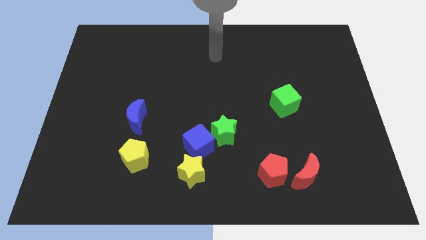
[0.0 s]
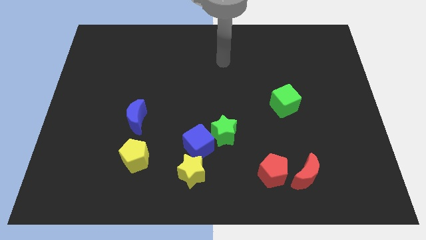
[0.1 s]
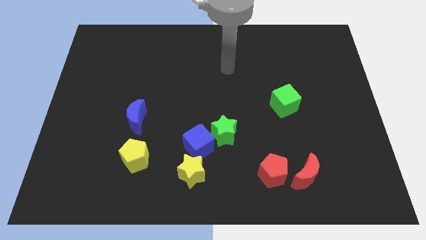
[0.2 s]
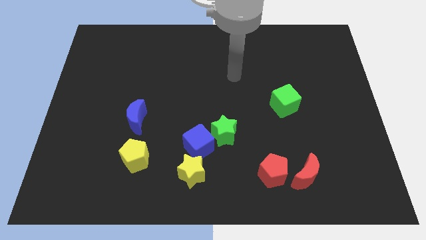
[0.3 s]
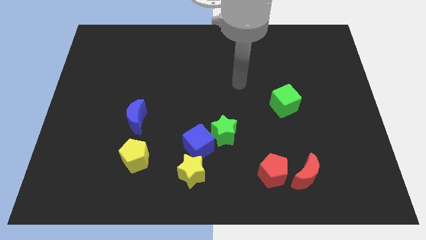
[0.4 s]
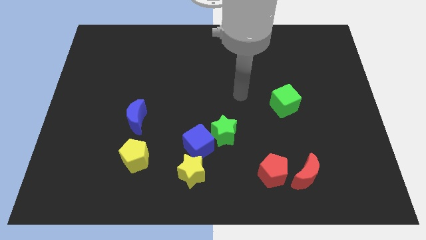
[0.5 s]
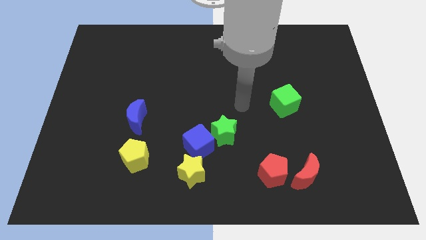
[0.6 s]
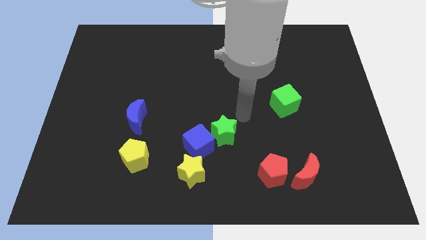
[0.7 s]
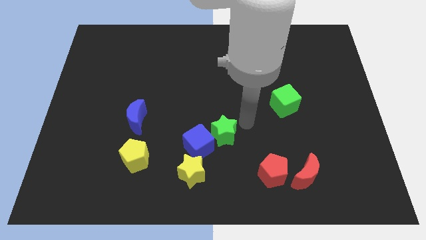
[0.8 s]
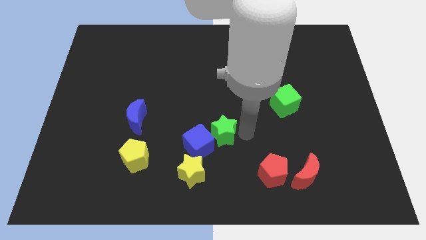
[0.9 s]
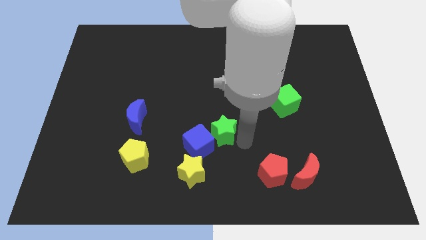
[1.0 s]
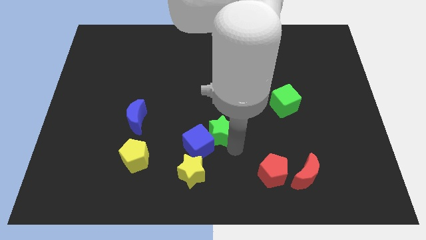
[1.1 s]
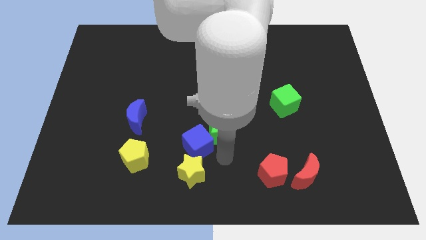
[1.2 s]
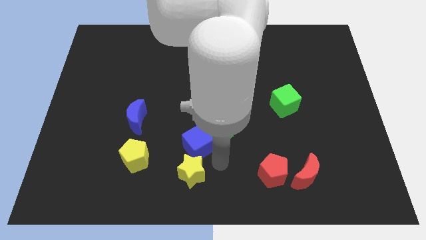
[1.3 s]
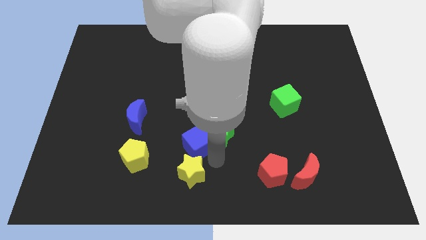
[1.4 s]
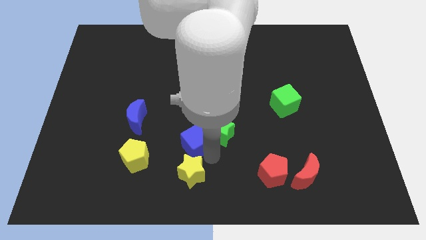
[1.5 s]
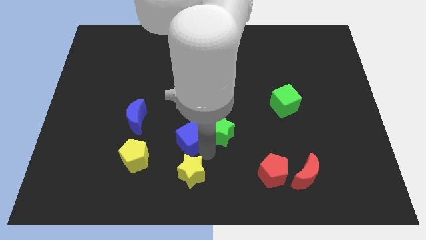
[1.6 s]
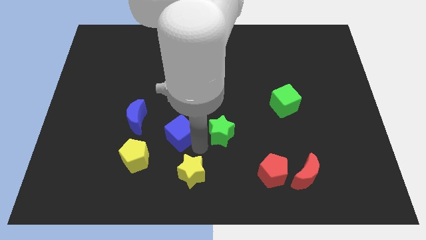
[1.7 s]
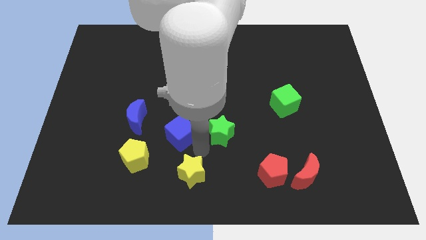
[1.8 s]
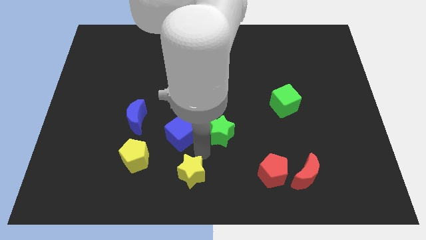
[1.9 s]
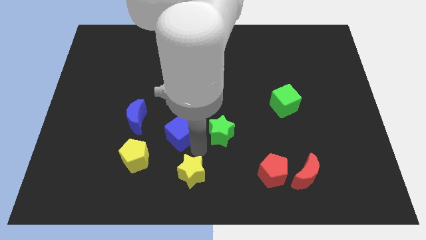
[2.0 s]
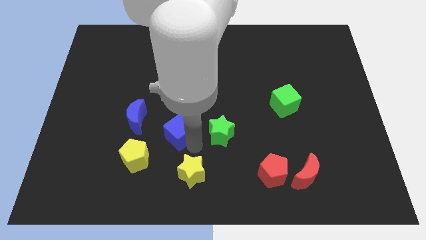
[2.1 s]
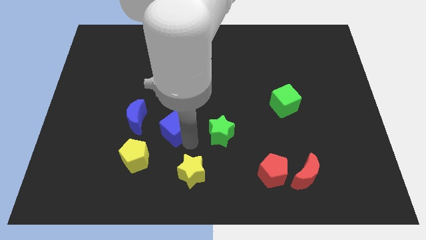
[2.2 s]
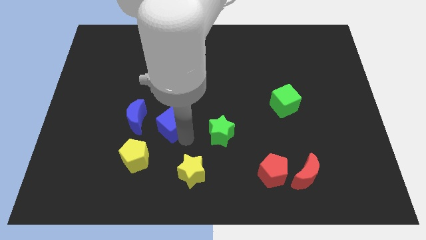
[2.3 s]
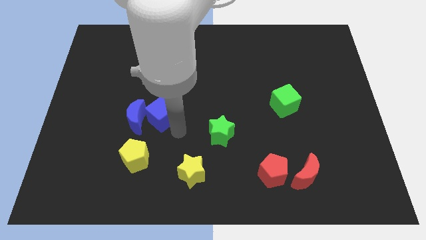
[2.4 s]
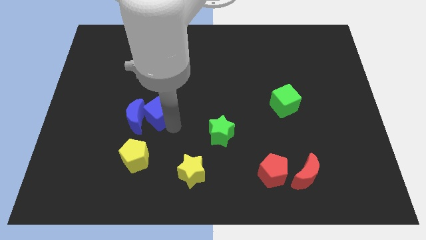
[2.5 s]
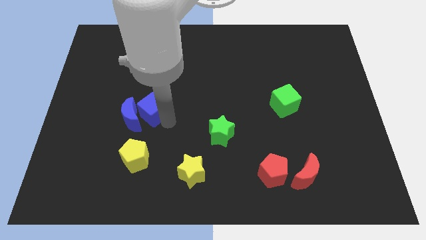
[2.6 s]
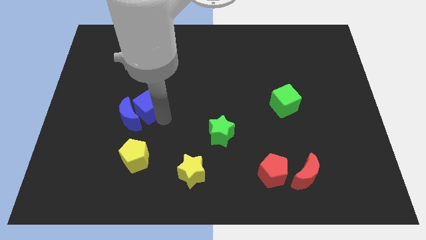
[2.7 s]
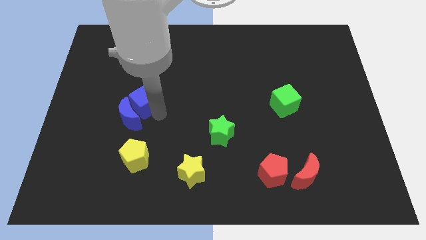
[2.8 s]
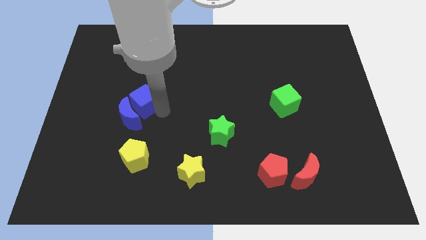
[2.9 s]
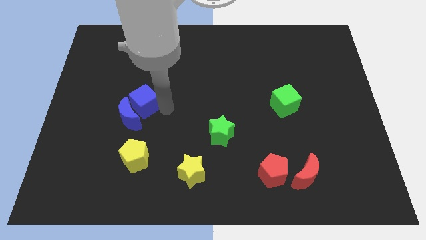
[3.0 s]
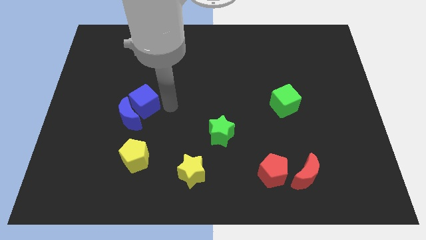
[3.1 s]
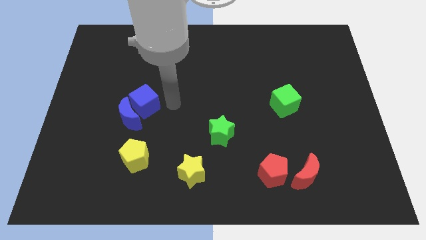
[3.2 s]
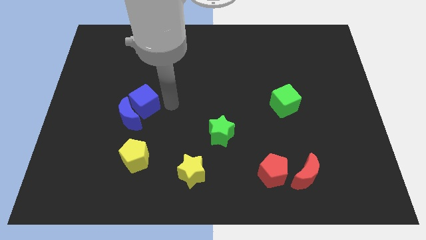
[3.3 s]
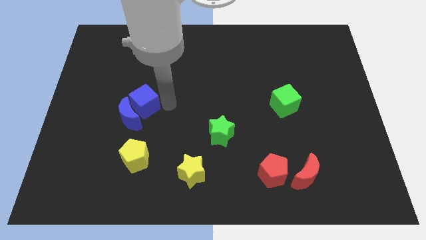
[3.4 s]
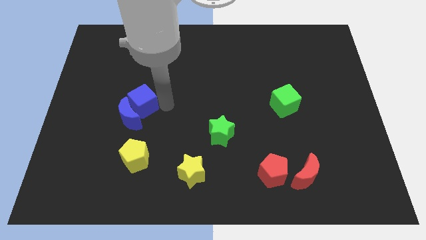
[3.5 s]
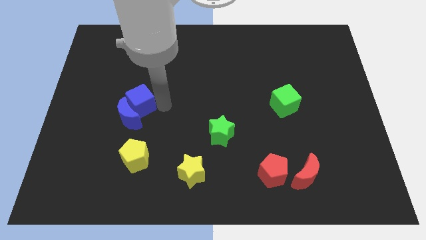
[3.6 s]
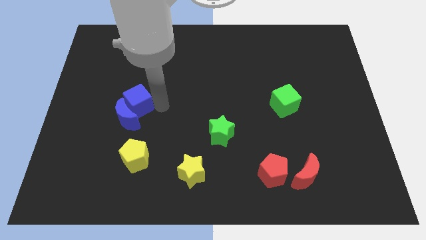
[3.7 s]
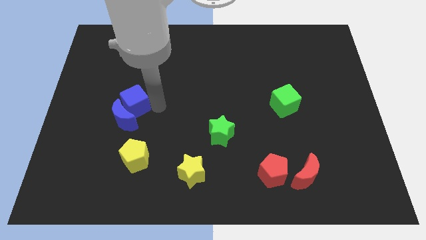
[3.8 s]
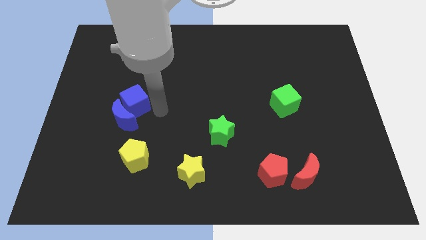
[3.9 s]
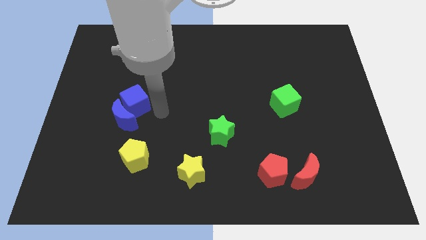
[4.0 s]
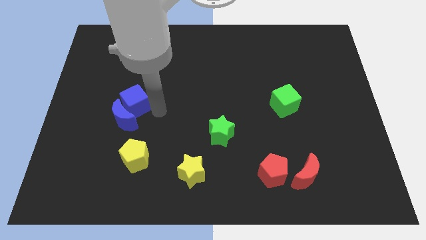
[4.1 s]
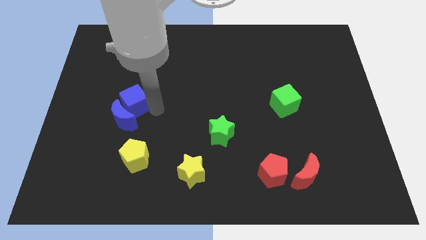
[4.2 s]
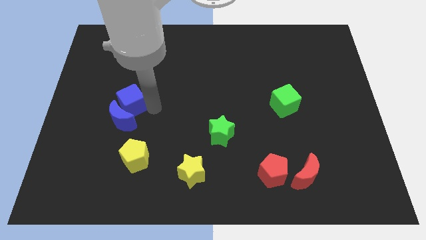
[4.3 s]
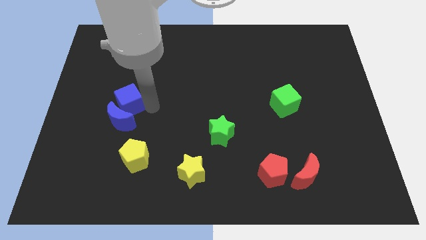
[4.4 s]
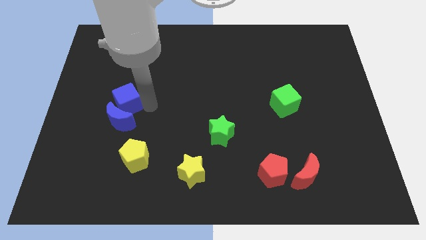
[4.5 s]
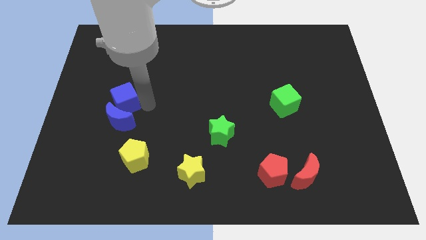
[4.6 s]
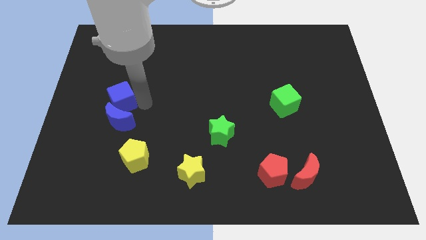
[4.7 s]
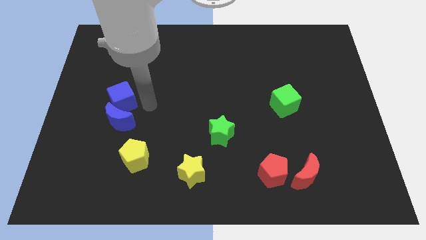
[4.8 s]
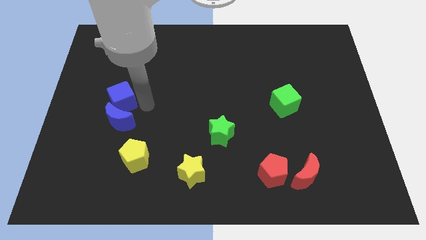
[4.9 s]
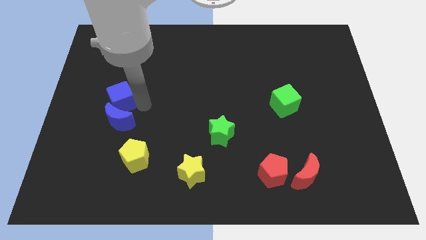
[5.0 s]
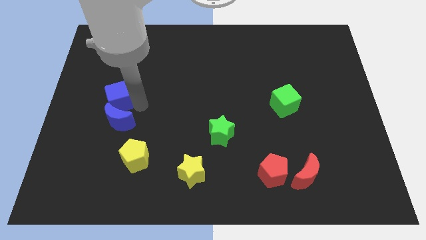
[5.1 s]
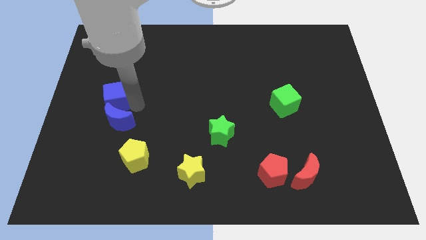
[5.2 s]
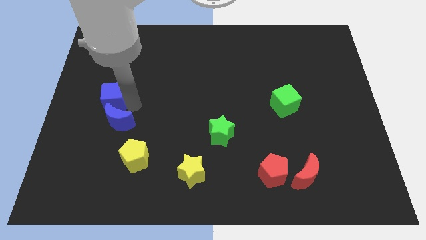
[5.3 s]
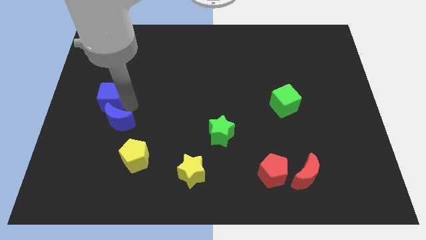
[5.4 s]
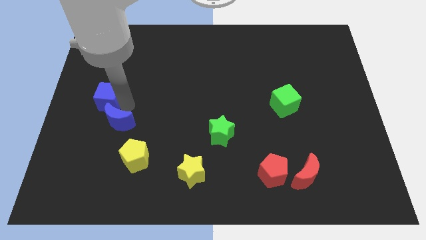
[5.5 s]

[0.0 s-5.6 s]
push the blue cube to the left side

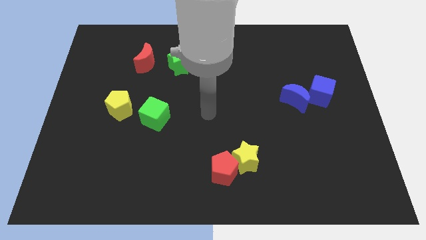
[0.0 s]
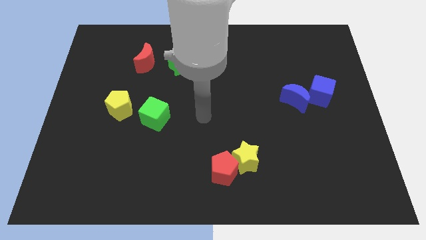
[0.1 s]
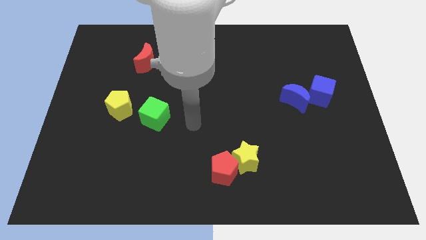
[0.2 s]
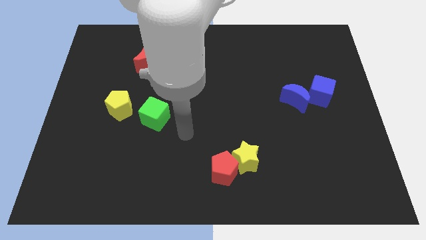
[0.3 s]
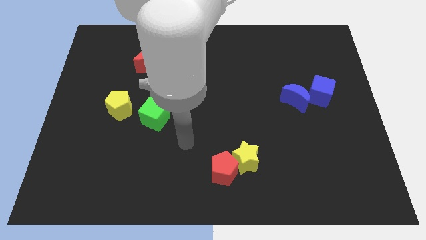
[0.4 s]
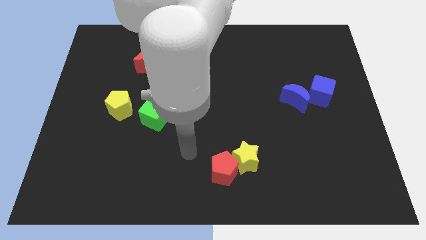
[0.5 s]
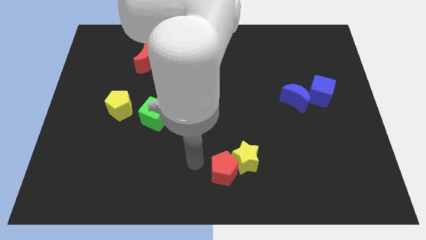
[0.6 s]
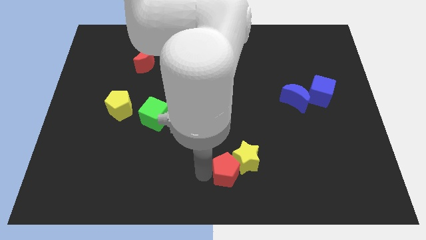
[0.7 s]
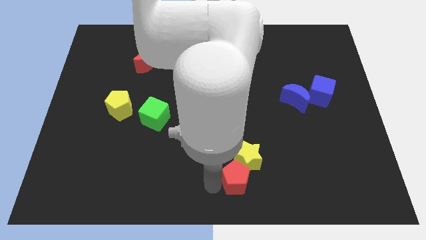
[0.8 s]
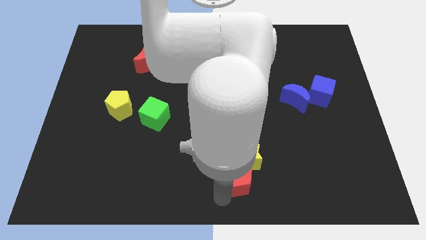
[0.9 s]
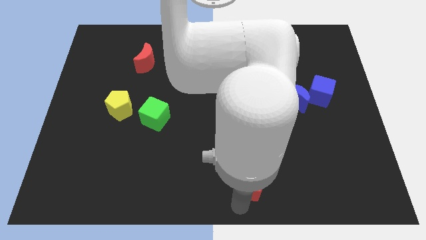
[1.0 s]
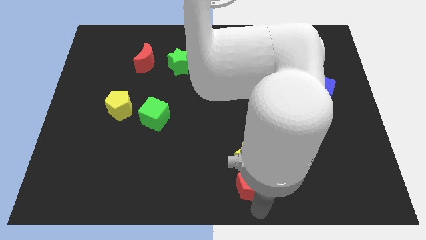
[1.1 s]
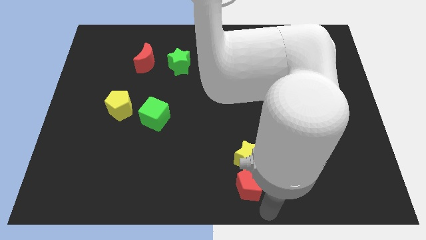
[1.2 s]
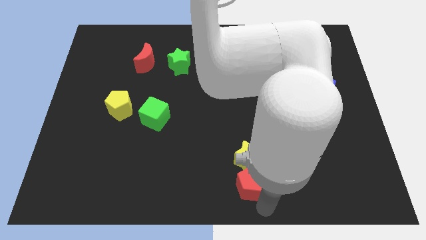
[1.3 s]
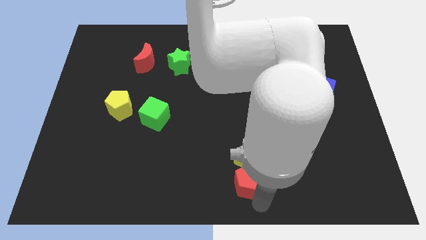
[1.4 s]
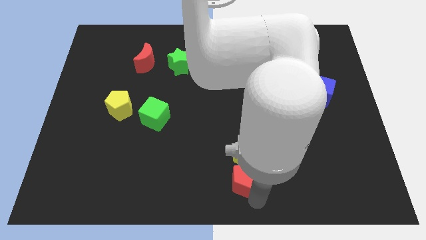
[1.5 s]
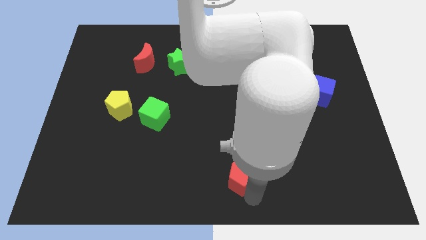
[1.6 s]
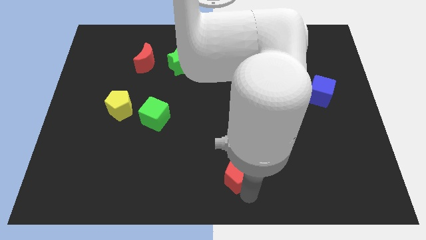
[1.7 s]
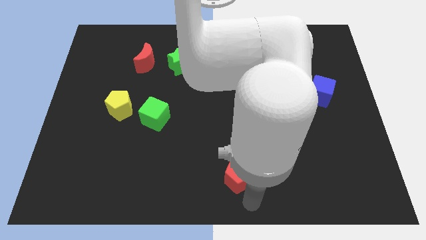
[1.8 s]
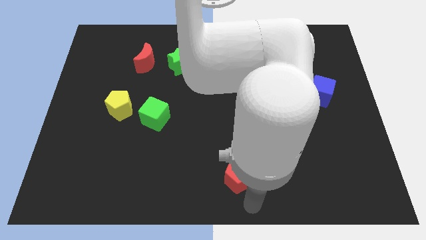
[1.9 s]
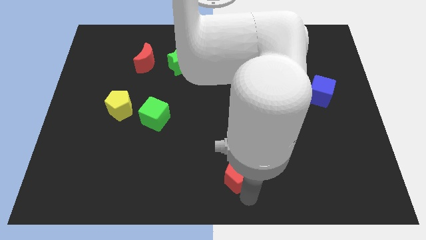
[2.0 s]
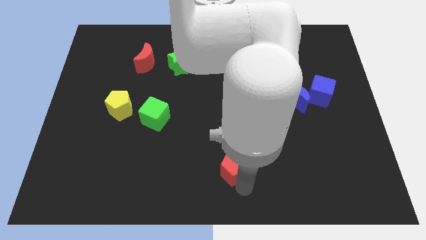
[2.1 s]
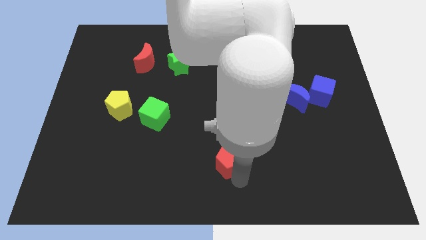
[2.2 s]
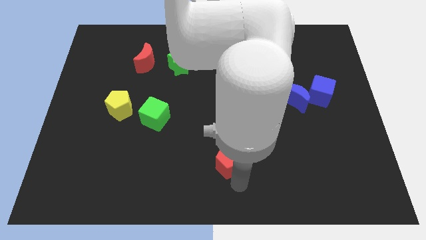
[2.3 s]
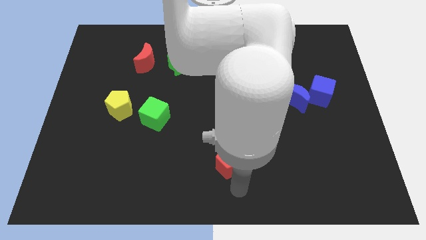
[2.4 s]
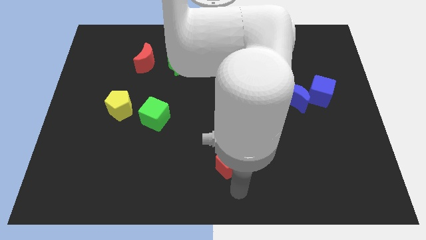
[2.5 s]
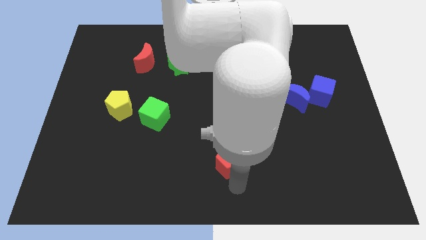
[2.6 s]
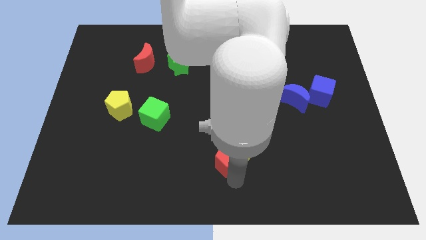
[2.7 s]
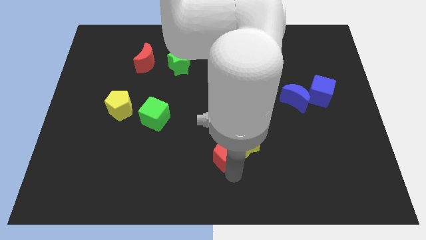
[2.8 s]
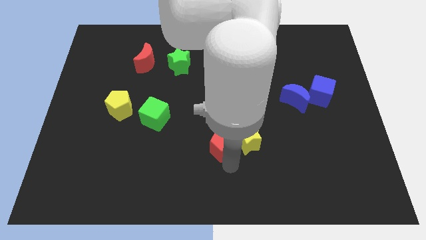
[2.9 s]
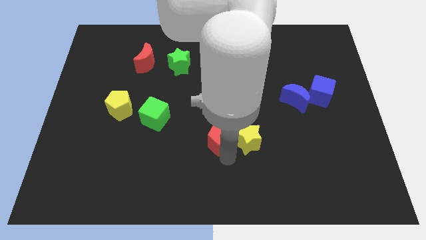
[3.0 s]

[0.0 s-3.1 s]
move the red pentagon to the center
